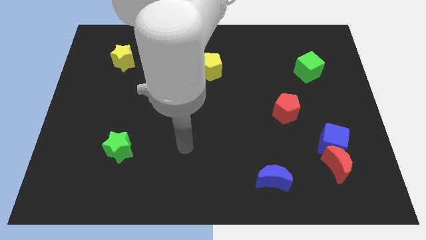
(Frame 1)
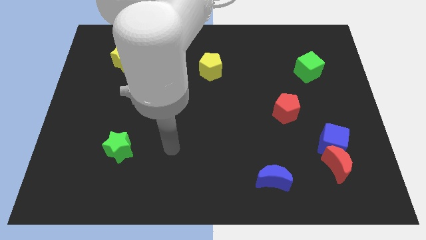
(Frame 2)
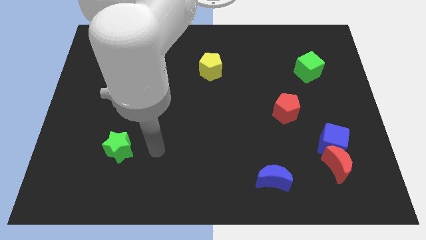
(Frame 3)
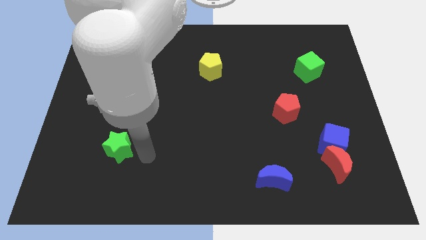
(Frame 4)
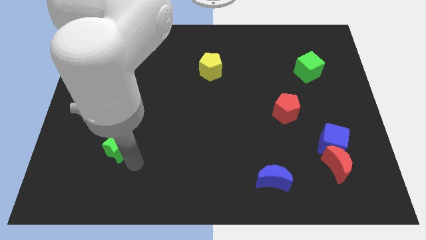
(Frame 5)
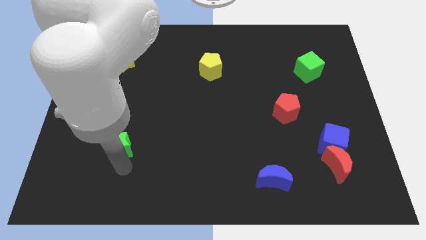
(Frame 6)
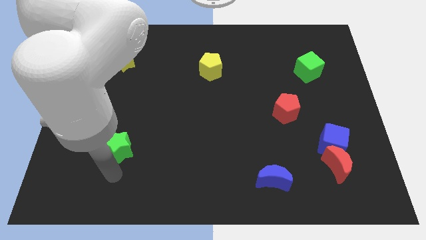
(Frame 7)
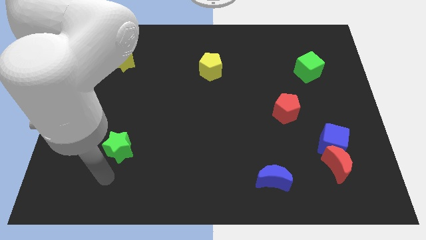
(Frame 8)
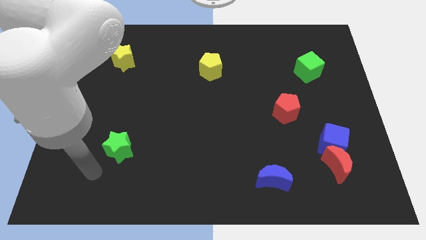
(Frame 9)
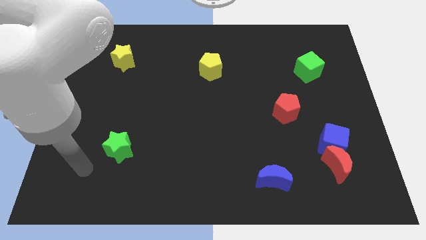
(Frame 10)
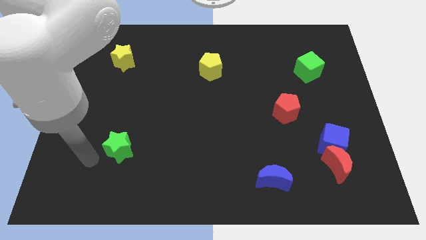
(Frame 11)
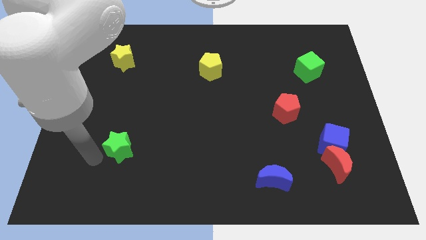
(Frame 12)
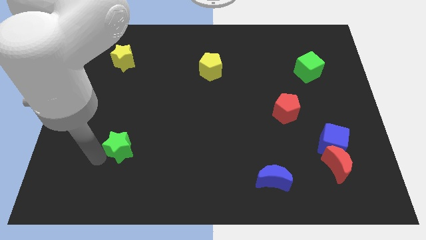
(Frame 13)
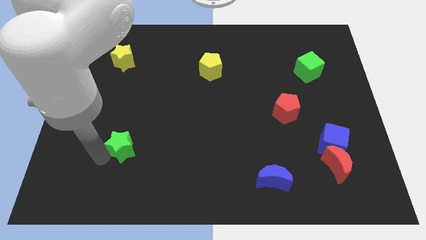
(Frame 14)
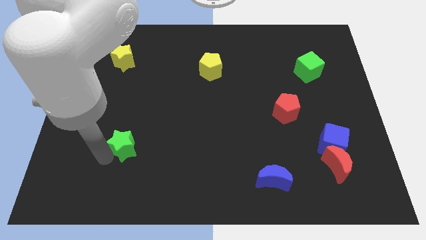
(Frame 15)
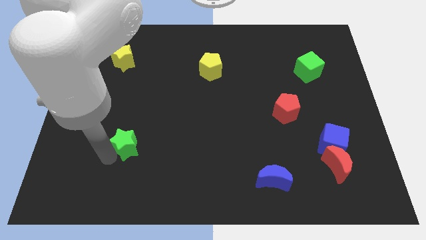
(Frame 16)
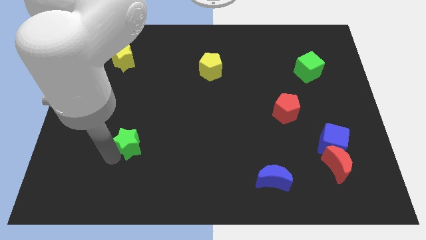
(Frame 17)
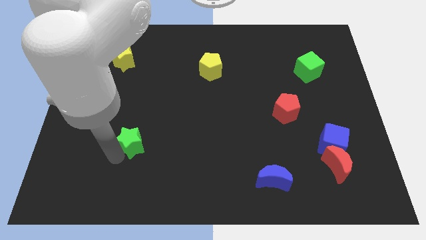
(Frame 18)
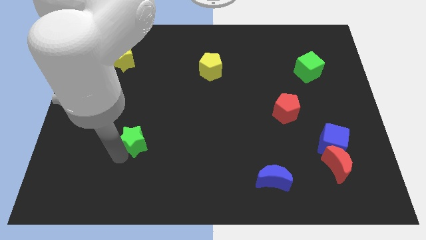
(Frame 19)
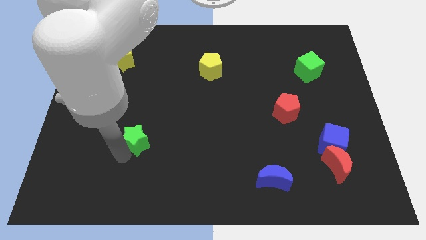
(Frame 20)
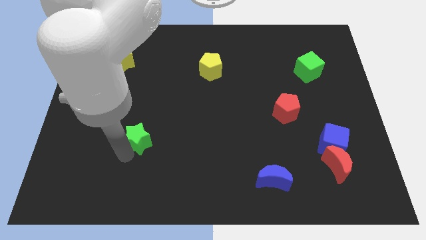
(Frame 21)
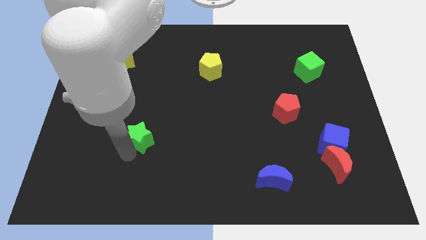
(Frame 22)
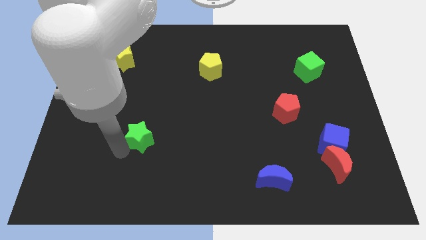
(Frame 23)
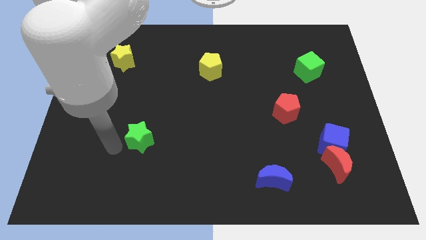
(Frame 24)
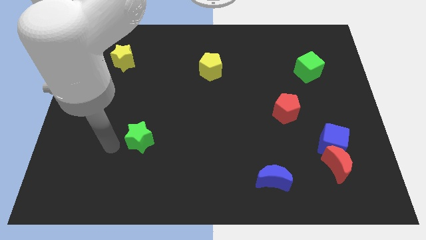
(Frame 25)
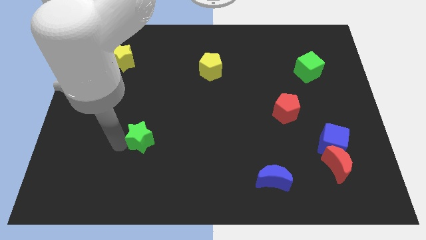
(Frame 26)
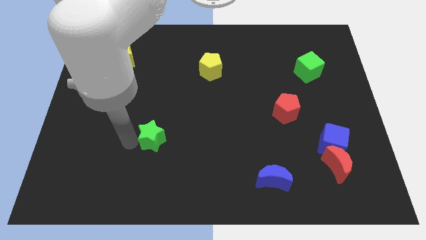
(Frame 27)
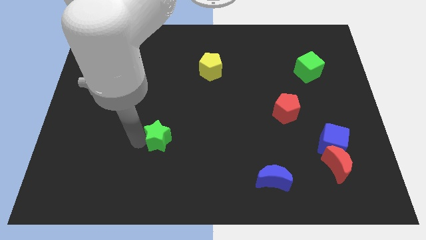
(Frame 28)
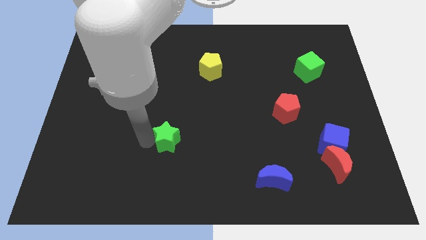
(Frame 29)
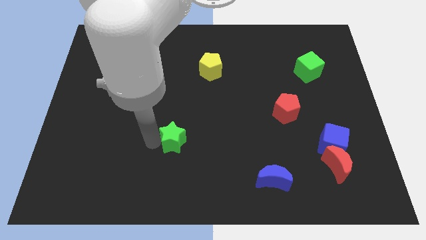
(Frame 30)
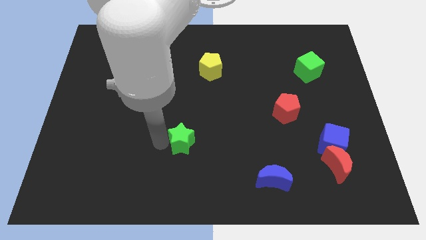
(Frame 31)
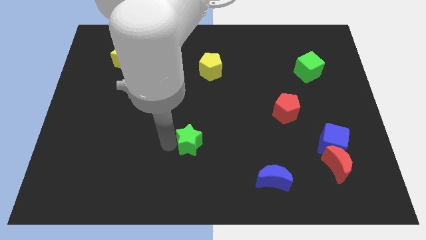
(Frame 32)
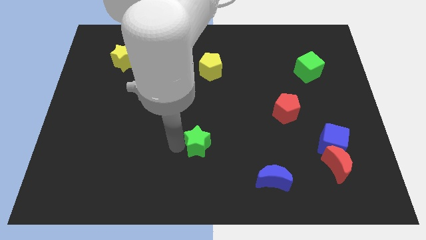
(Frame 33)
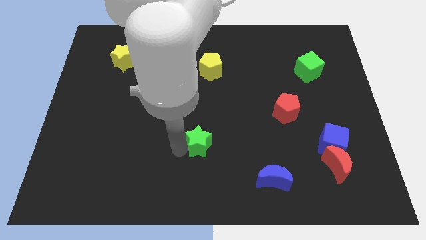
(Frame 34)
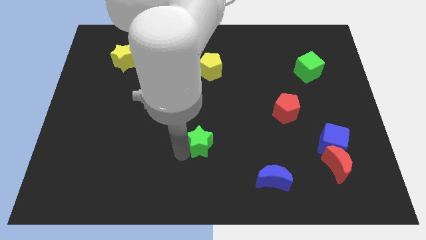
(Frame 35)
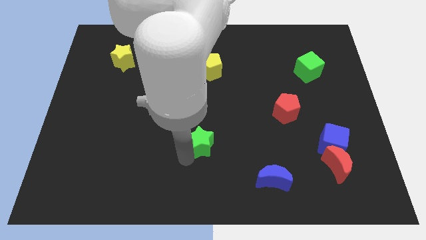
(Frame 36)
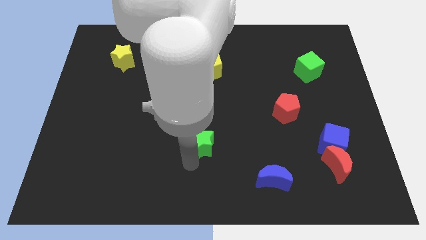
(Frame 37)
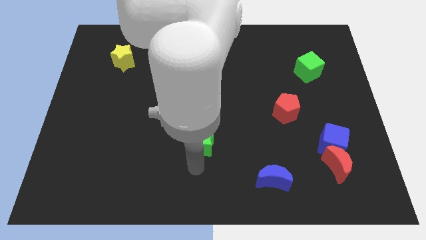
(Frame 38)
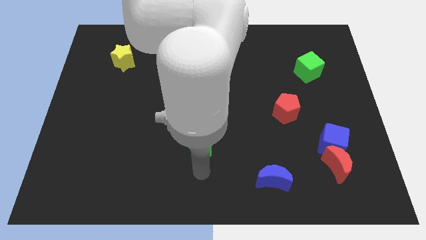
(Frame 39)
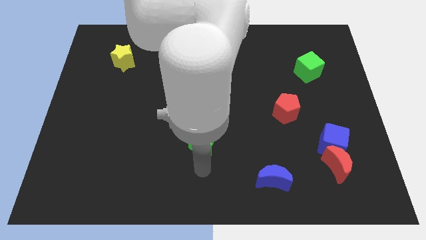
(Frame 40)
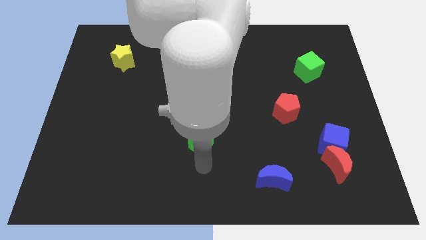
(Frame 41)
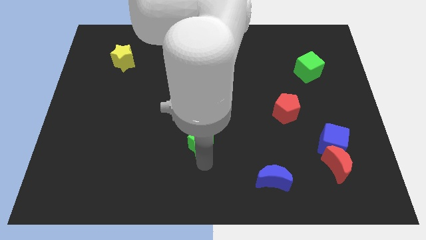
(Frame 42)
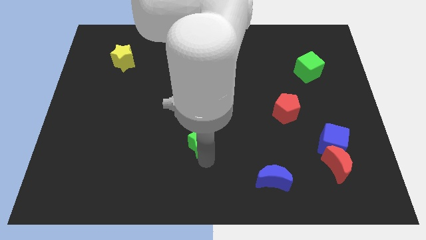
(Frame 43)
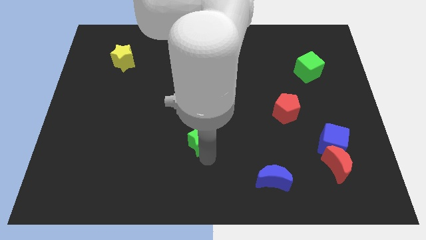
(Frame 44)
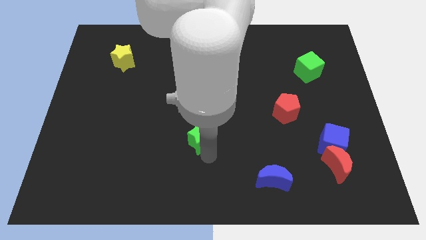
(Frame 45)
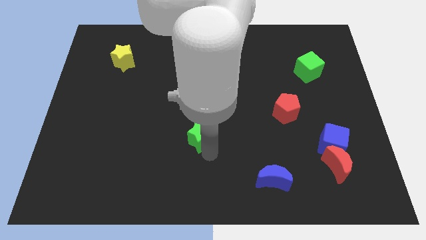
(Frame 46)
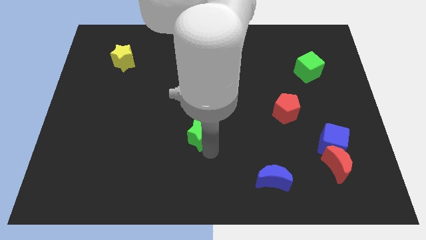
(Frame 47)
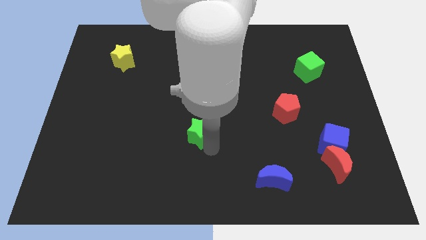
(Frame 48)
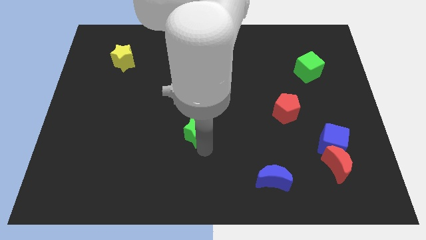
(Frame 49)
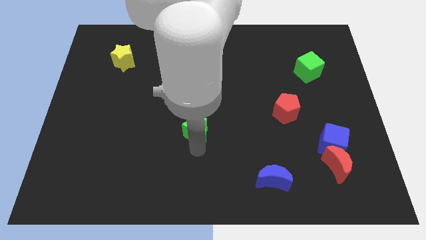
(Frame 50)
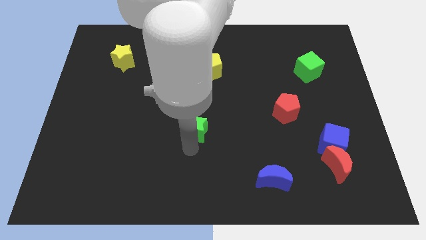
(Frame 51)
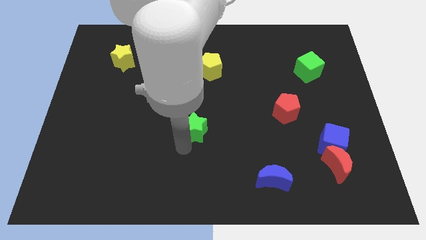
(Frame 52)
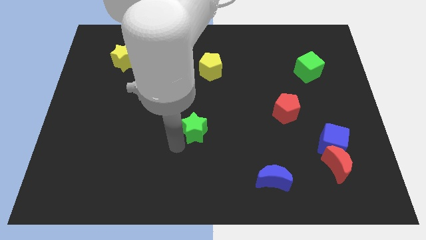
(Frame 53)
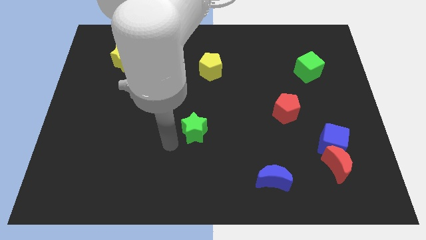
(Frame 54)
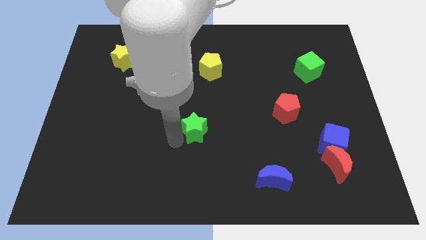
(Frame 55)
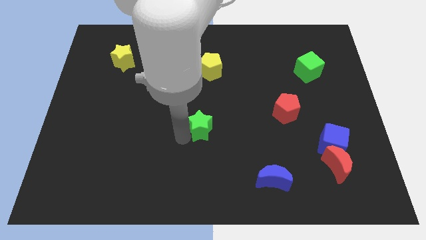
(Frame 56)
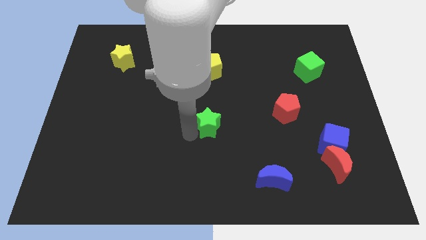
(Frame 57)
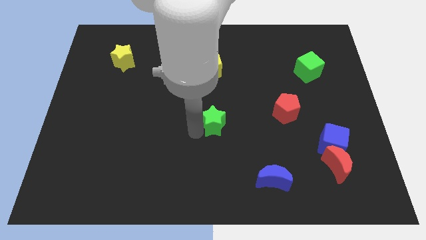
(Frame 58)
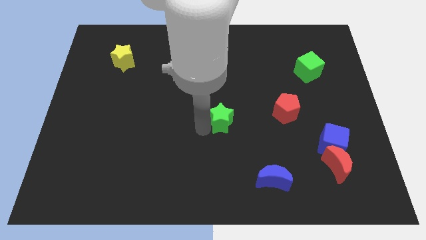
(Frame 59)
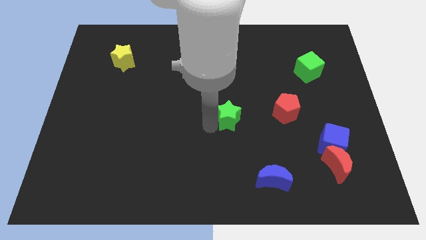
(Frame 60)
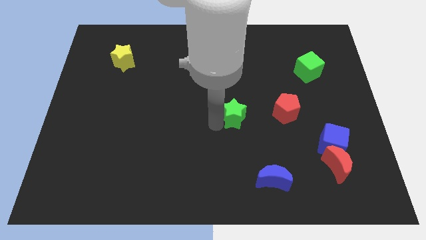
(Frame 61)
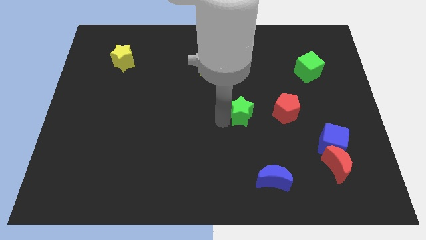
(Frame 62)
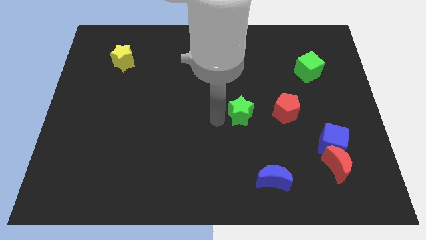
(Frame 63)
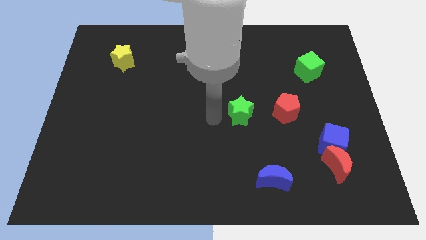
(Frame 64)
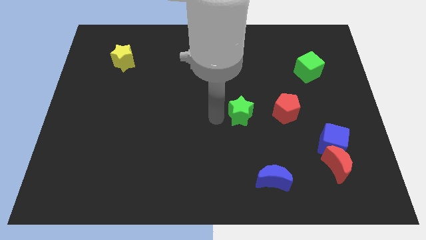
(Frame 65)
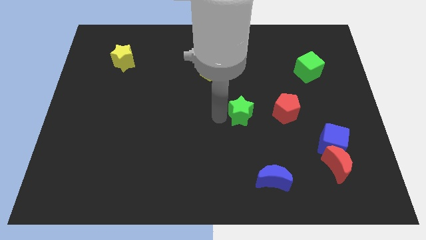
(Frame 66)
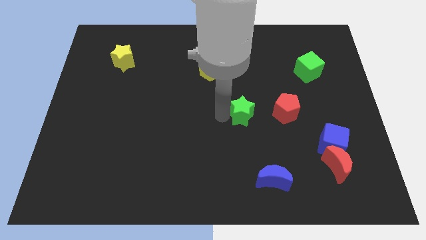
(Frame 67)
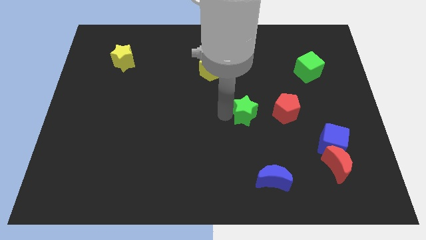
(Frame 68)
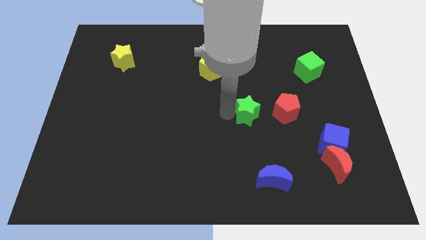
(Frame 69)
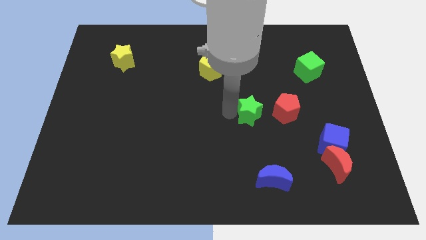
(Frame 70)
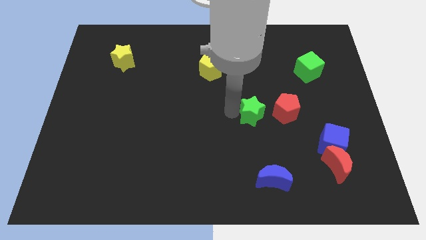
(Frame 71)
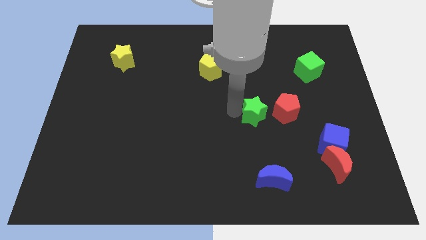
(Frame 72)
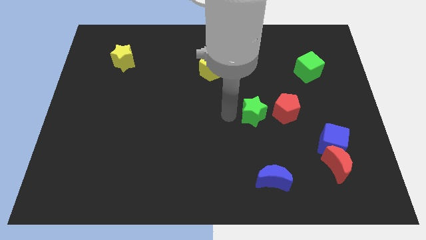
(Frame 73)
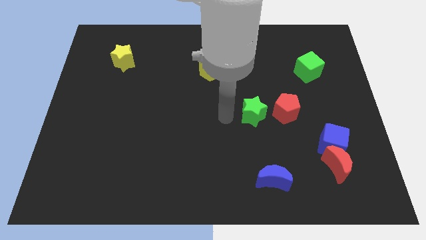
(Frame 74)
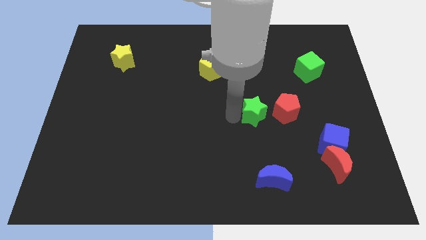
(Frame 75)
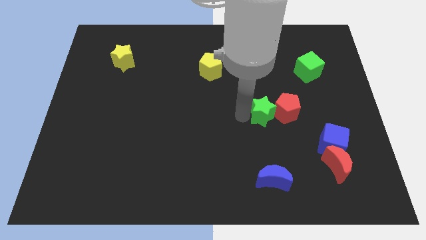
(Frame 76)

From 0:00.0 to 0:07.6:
slide the green star towards the red pentagon

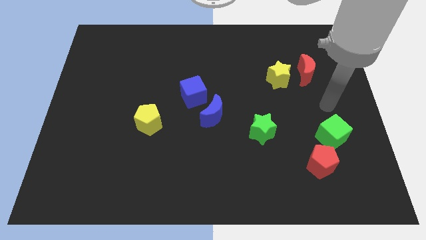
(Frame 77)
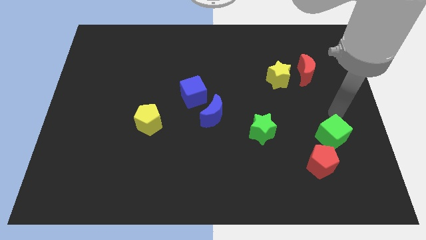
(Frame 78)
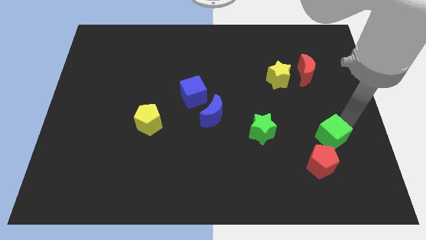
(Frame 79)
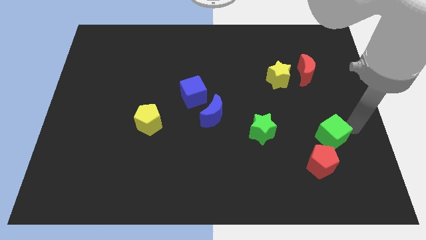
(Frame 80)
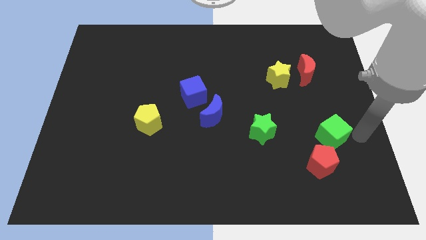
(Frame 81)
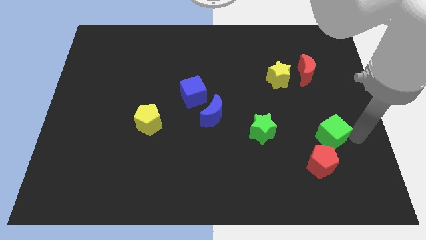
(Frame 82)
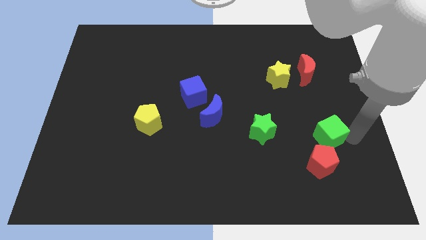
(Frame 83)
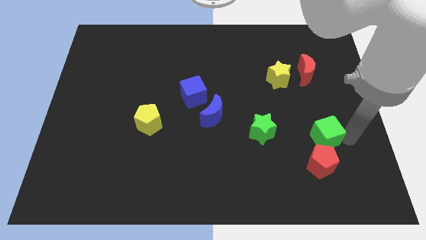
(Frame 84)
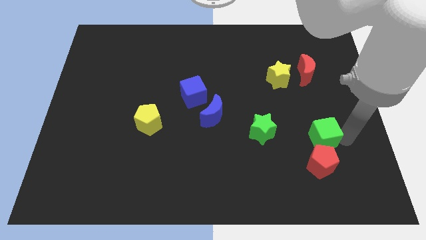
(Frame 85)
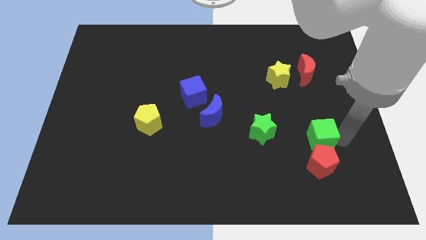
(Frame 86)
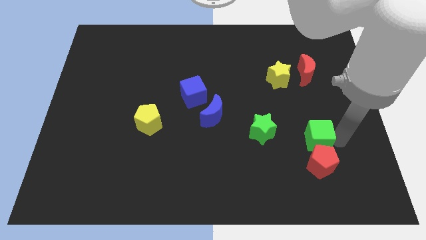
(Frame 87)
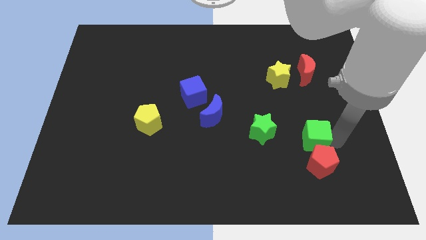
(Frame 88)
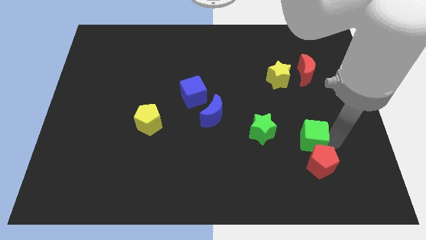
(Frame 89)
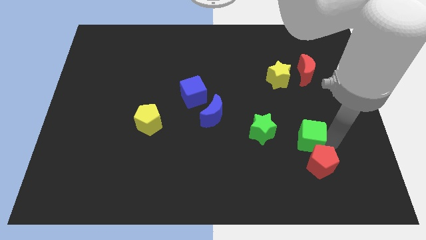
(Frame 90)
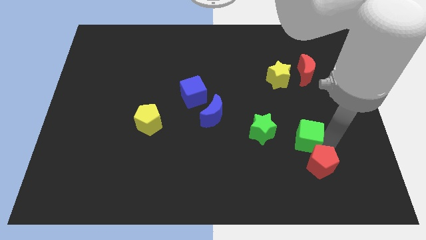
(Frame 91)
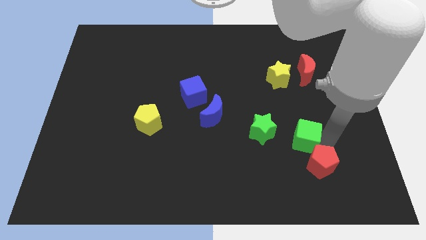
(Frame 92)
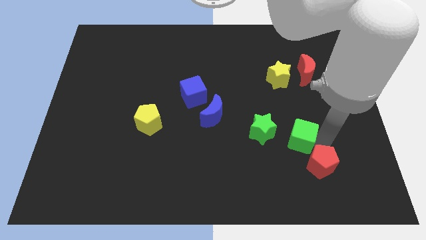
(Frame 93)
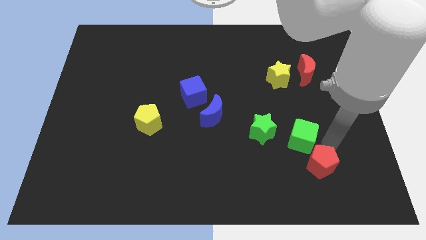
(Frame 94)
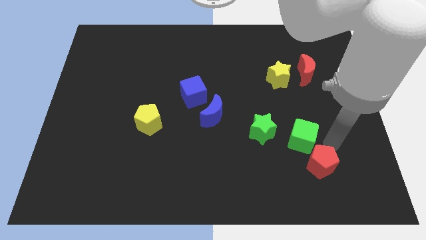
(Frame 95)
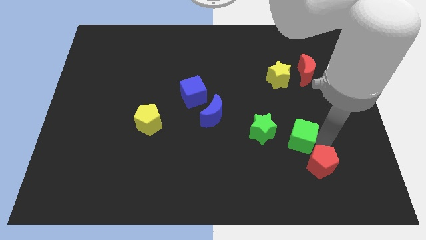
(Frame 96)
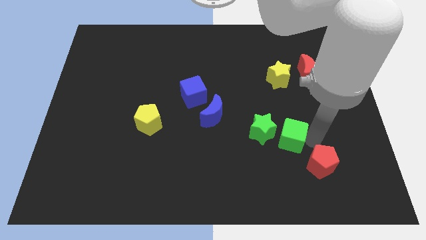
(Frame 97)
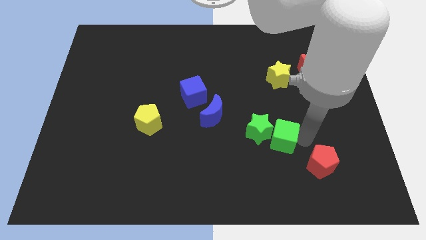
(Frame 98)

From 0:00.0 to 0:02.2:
slide the green cube next to the green star
